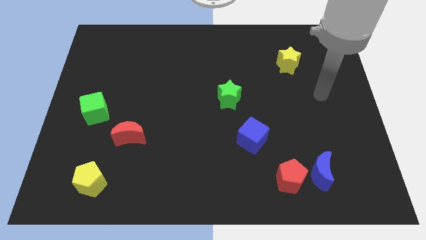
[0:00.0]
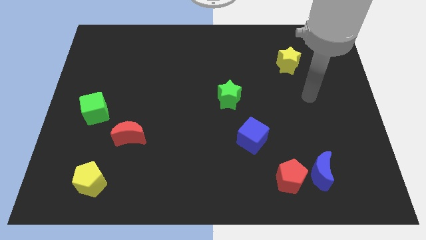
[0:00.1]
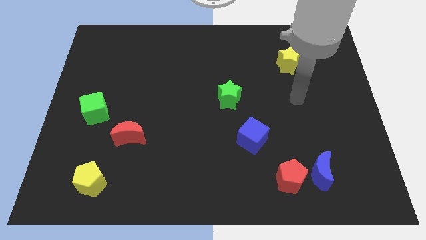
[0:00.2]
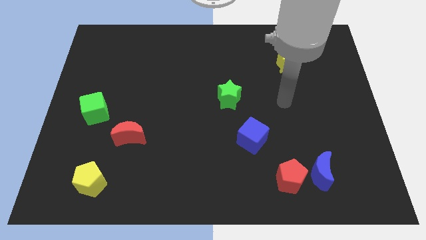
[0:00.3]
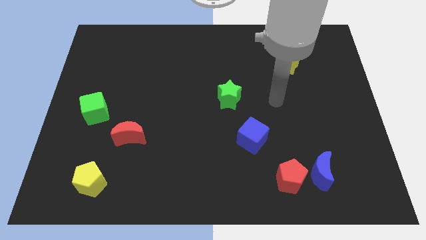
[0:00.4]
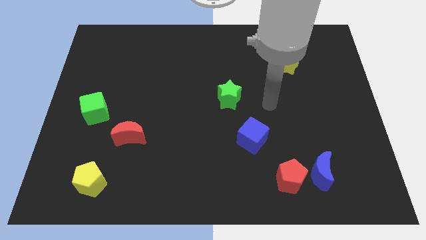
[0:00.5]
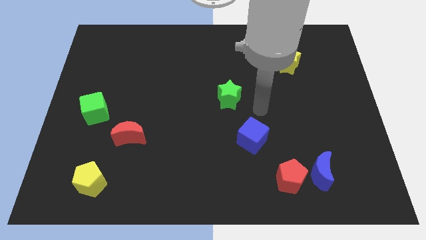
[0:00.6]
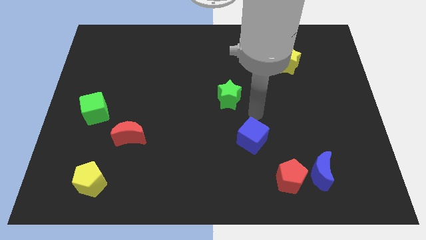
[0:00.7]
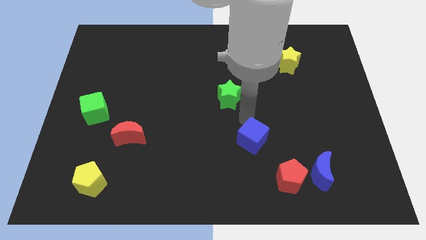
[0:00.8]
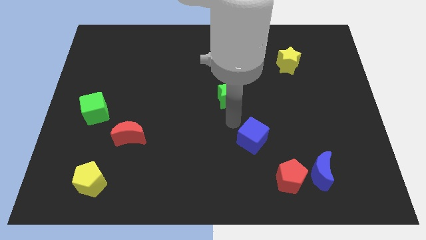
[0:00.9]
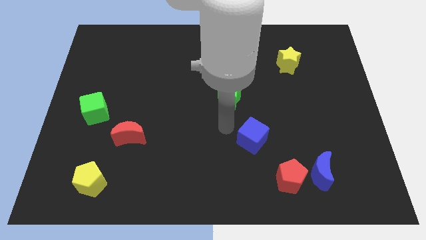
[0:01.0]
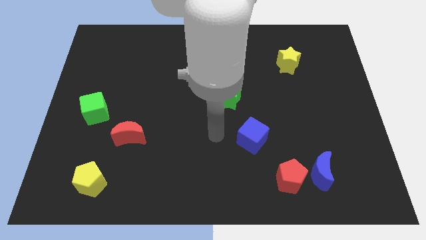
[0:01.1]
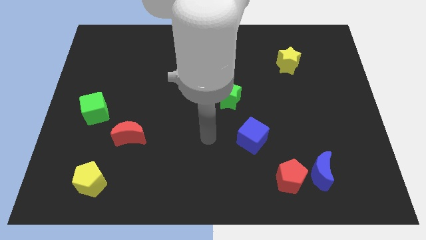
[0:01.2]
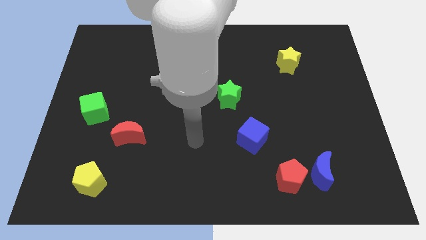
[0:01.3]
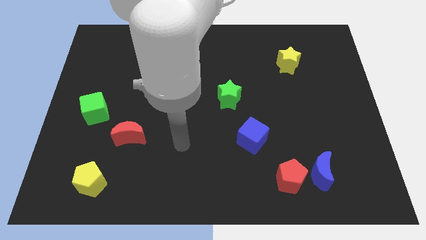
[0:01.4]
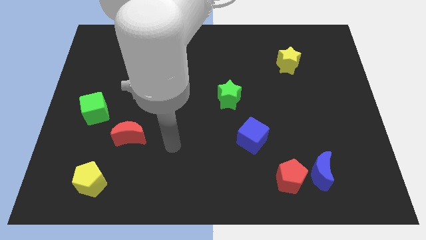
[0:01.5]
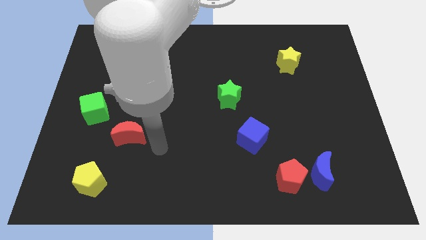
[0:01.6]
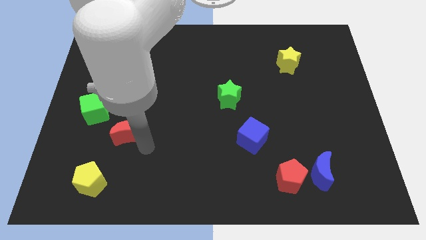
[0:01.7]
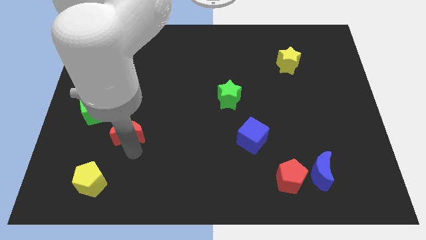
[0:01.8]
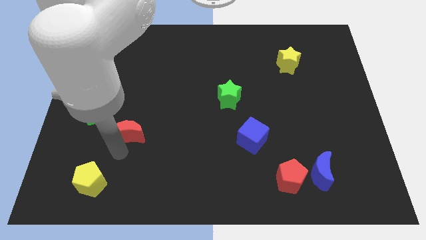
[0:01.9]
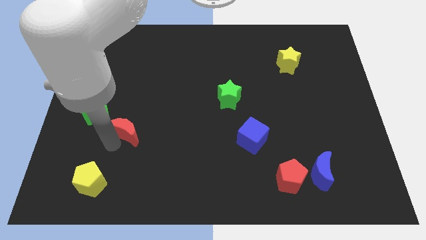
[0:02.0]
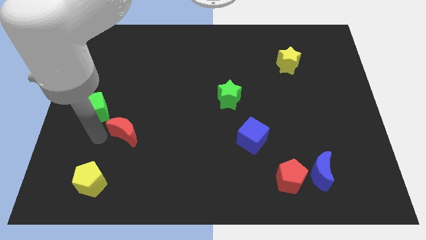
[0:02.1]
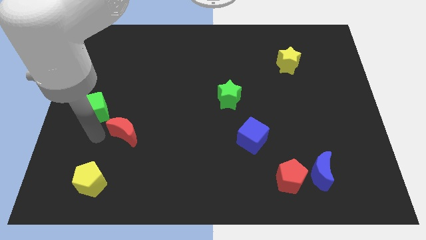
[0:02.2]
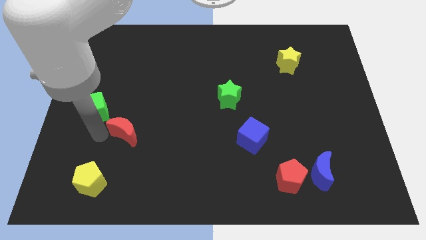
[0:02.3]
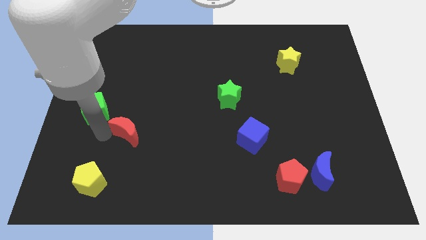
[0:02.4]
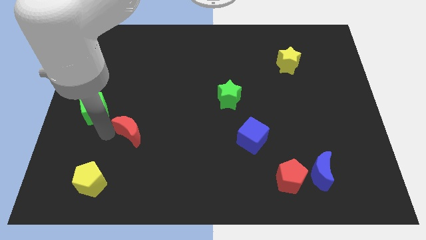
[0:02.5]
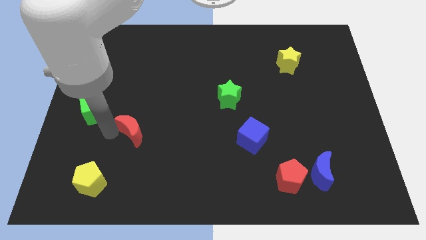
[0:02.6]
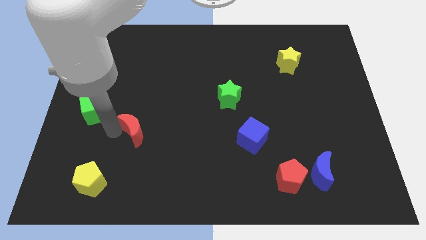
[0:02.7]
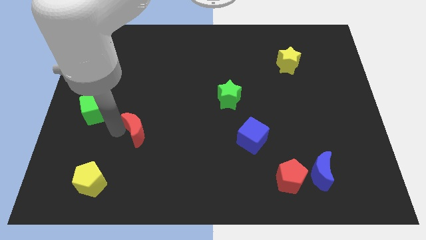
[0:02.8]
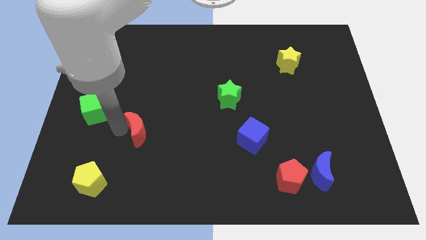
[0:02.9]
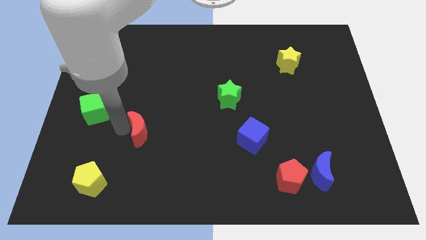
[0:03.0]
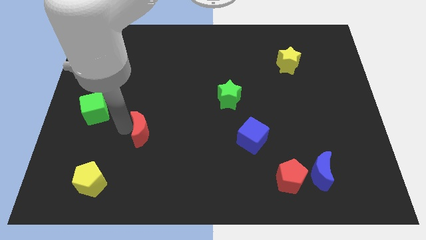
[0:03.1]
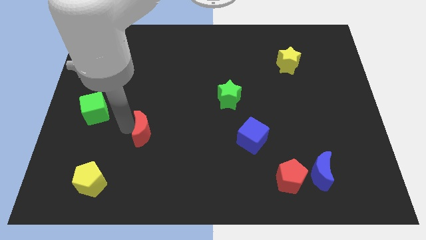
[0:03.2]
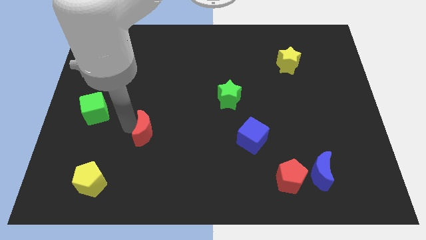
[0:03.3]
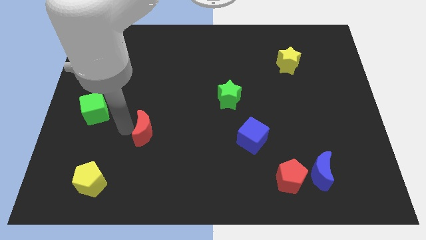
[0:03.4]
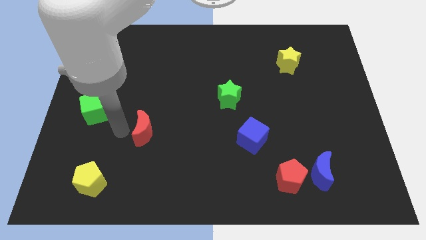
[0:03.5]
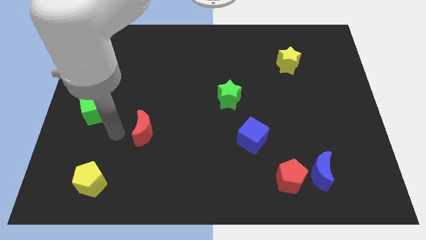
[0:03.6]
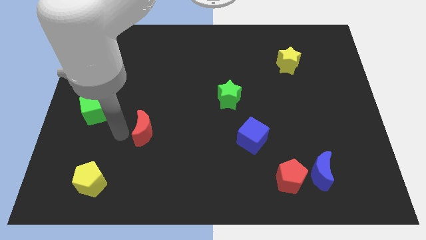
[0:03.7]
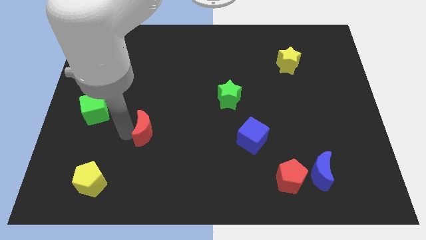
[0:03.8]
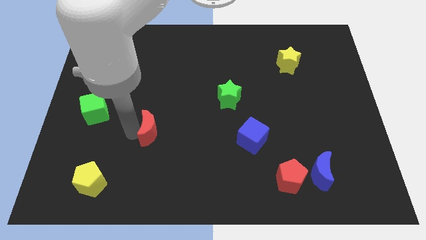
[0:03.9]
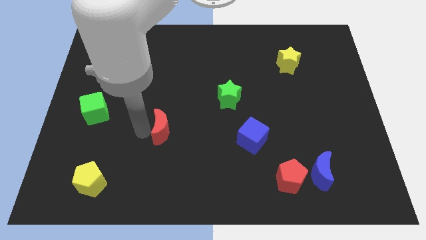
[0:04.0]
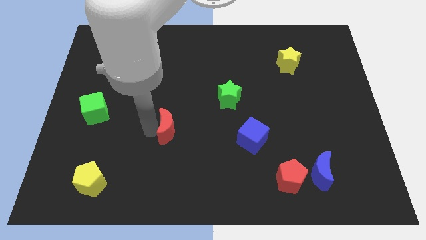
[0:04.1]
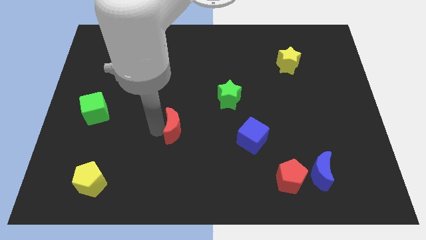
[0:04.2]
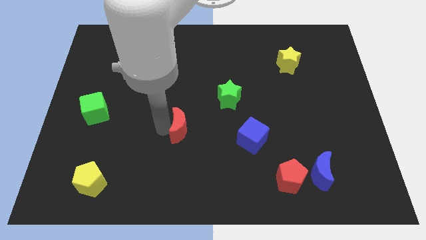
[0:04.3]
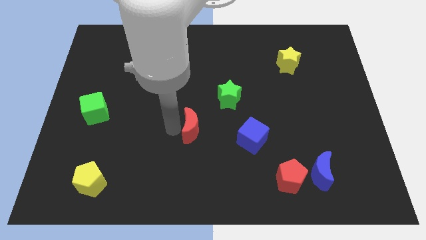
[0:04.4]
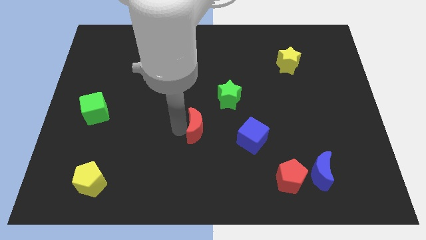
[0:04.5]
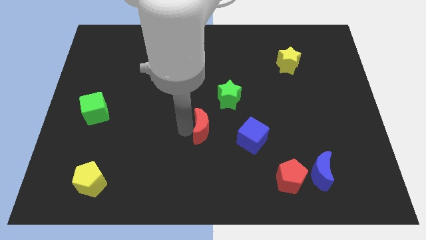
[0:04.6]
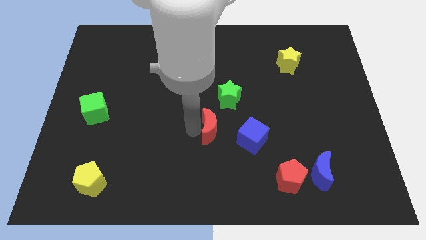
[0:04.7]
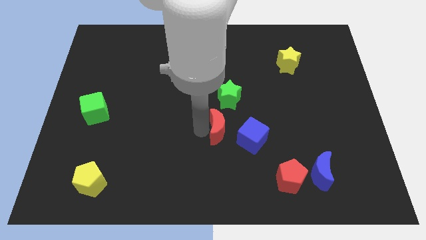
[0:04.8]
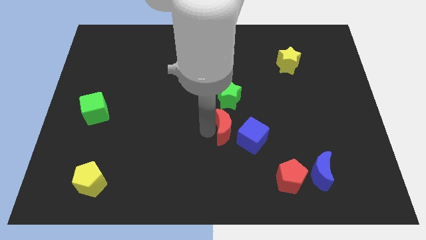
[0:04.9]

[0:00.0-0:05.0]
slide the red moon right

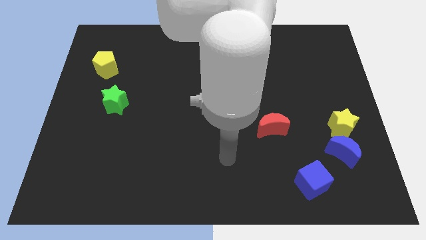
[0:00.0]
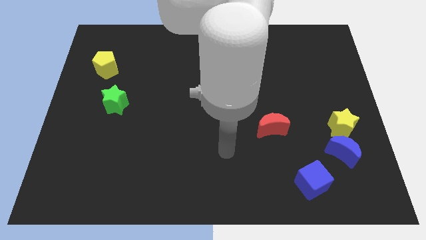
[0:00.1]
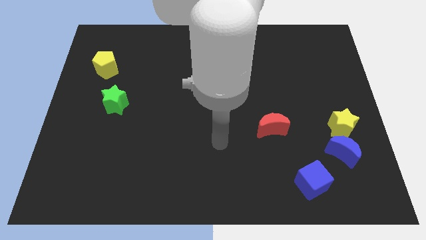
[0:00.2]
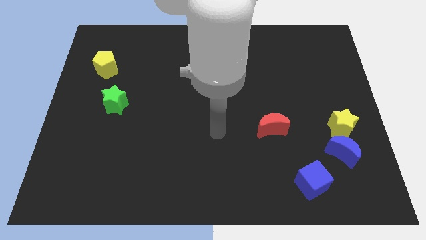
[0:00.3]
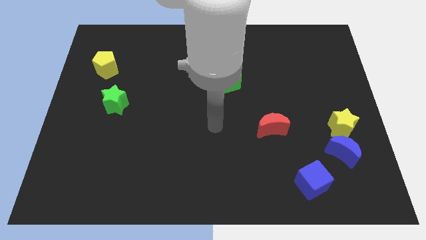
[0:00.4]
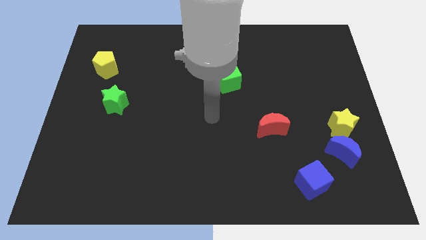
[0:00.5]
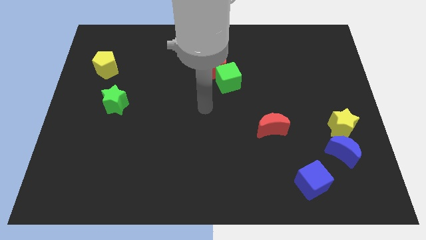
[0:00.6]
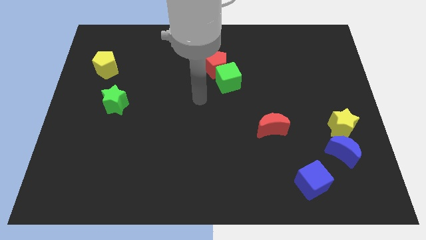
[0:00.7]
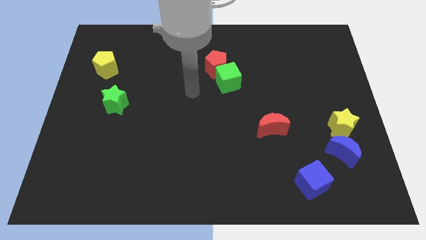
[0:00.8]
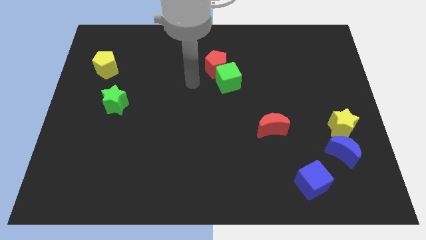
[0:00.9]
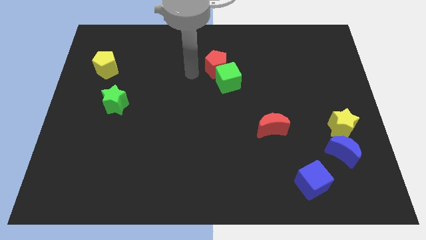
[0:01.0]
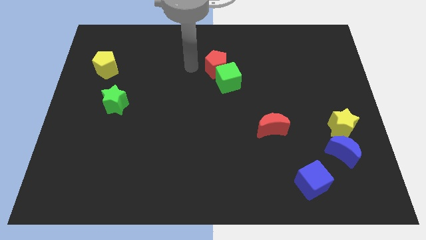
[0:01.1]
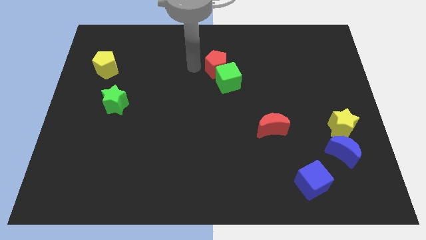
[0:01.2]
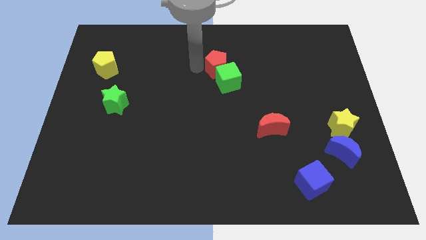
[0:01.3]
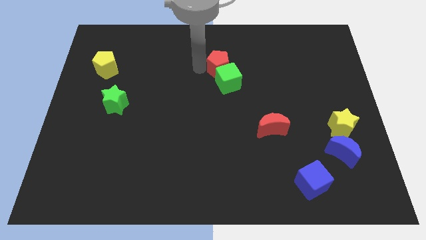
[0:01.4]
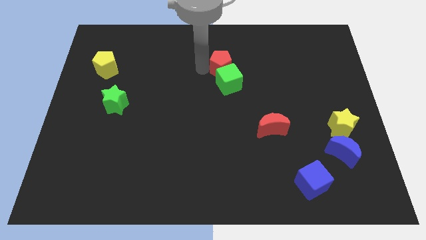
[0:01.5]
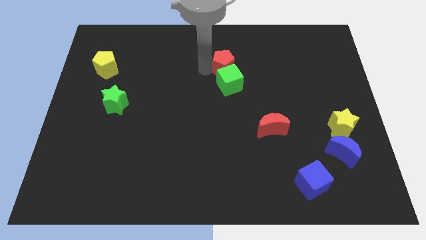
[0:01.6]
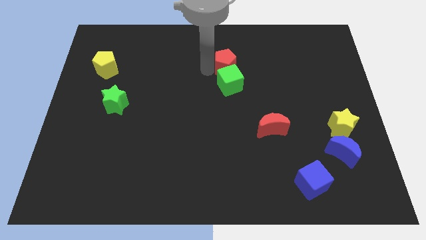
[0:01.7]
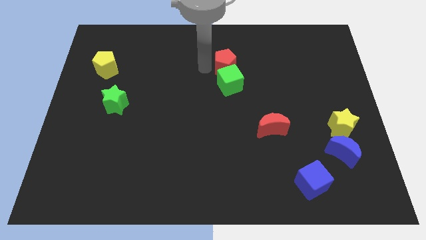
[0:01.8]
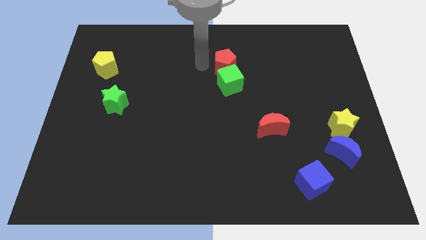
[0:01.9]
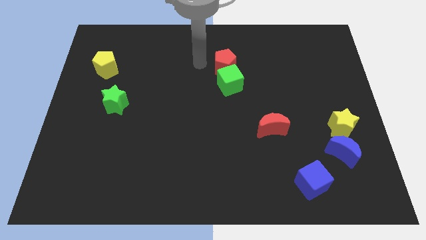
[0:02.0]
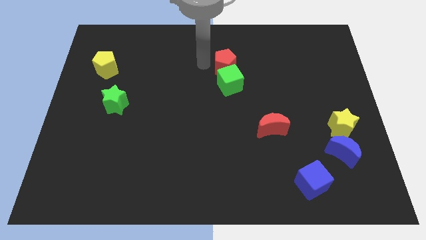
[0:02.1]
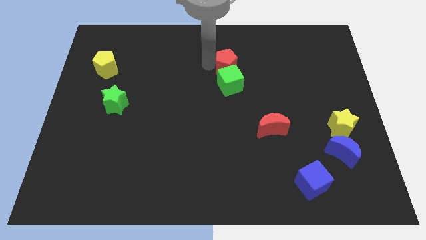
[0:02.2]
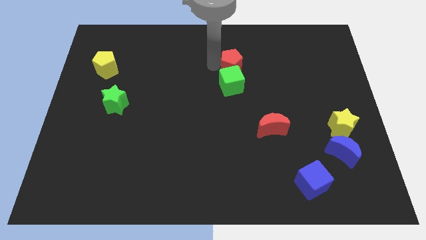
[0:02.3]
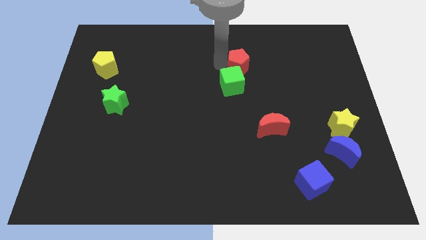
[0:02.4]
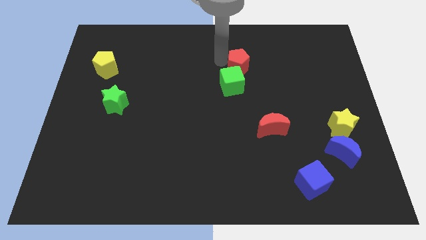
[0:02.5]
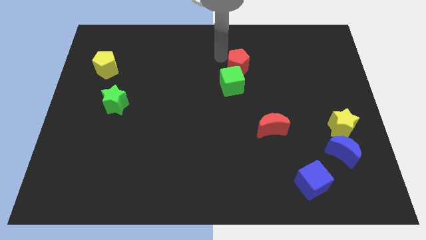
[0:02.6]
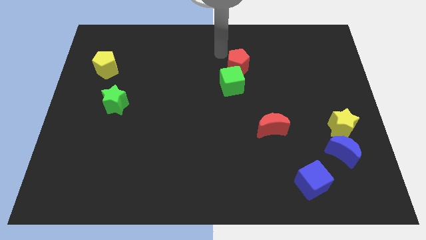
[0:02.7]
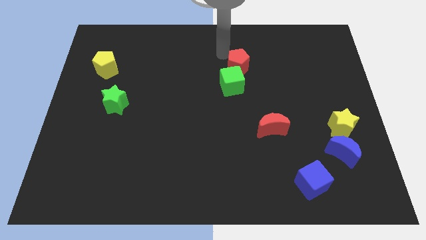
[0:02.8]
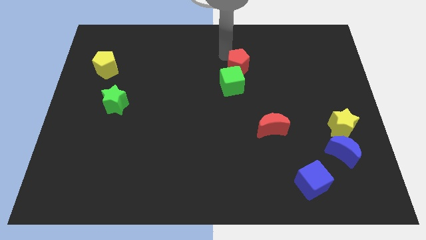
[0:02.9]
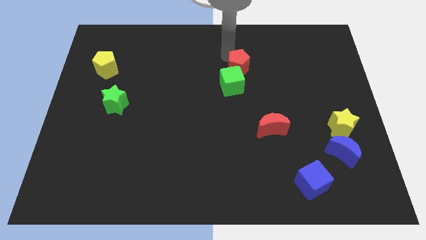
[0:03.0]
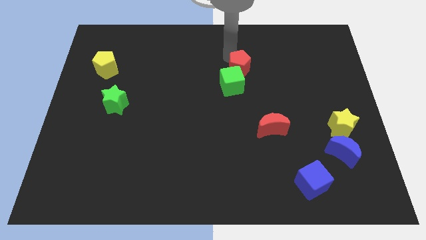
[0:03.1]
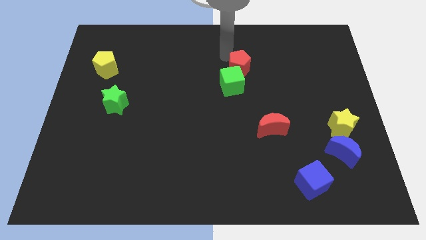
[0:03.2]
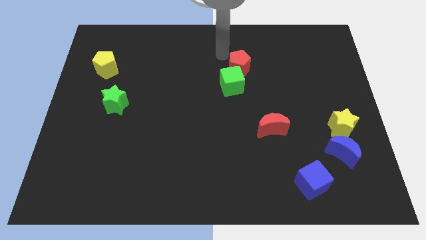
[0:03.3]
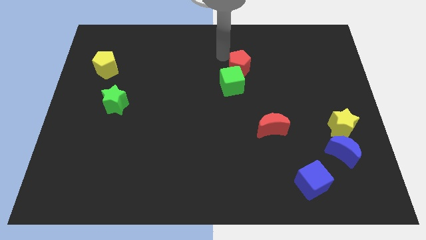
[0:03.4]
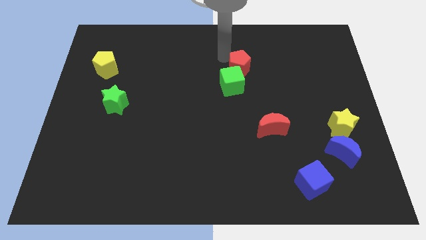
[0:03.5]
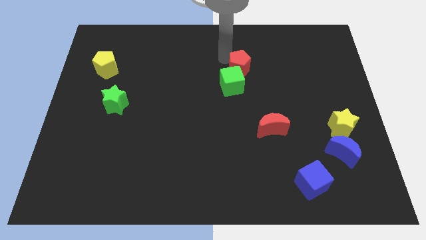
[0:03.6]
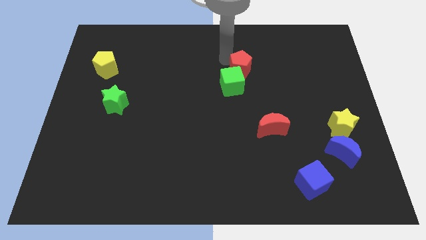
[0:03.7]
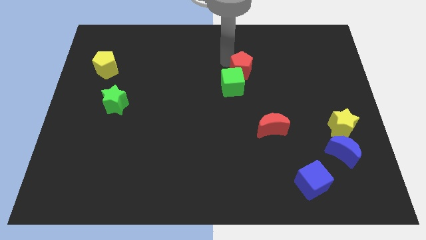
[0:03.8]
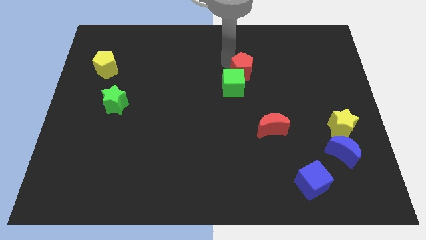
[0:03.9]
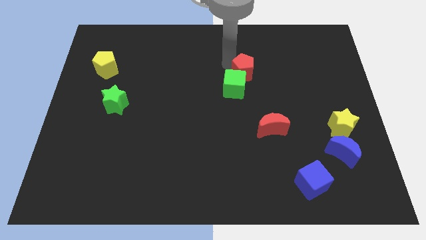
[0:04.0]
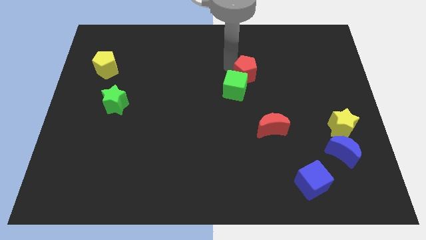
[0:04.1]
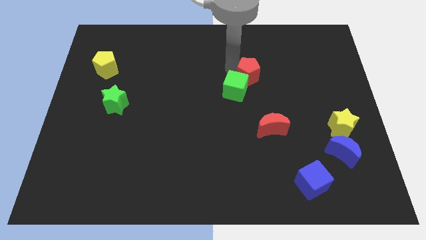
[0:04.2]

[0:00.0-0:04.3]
move the red pentagon a little down and to the right diagonally
